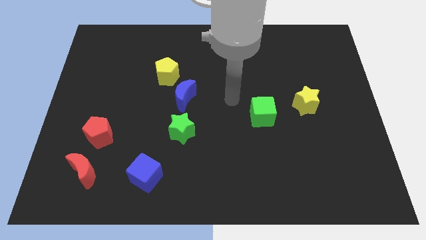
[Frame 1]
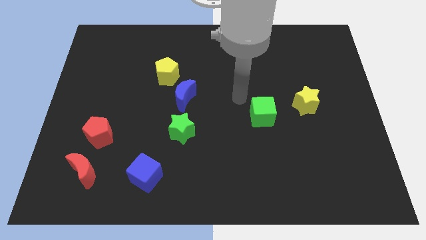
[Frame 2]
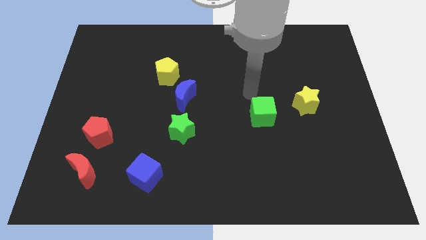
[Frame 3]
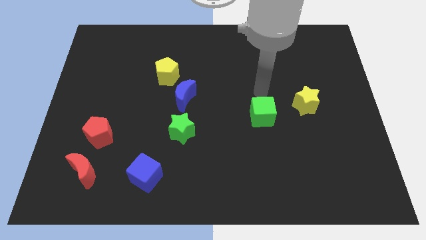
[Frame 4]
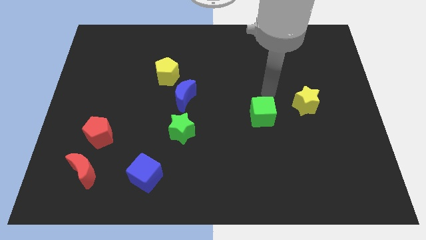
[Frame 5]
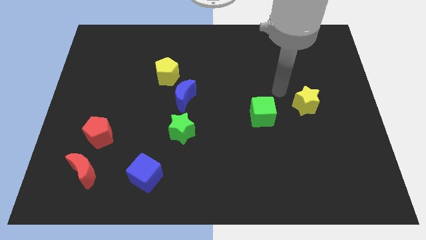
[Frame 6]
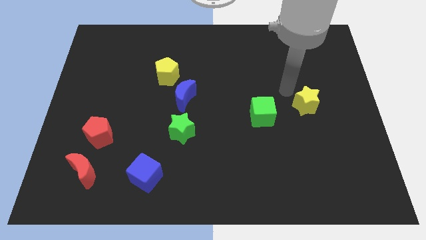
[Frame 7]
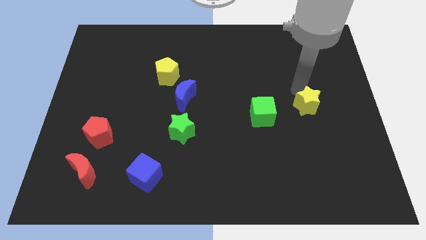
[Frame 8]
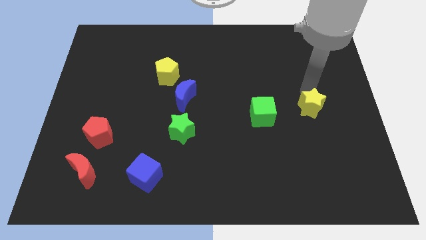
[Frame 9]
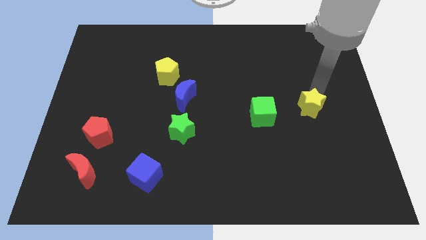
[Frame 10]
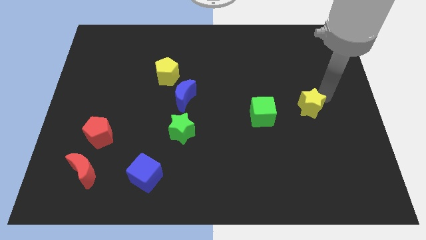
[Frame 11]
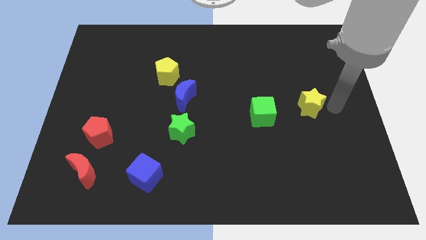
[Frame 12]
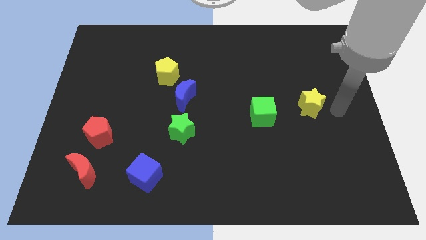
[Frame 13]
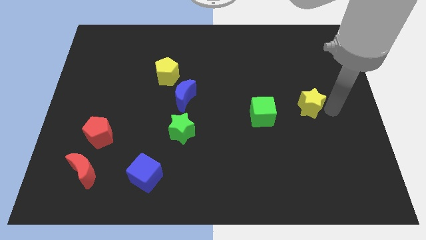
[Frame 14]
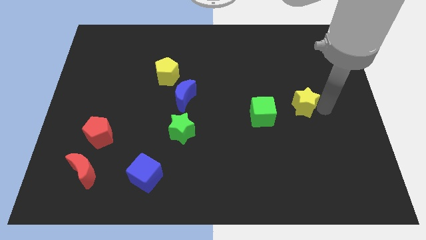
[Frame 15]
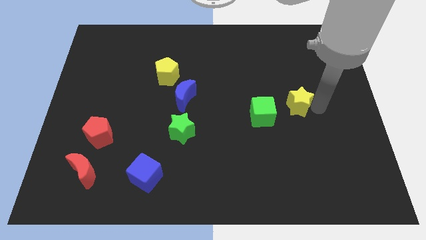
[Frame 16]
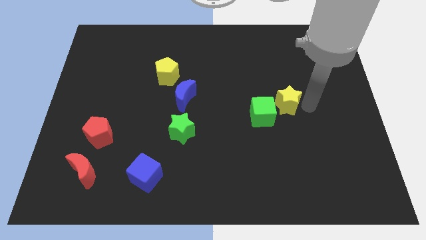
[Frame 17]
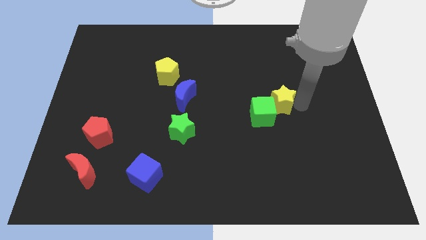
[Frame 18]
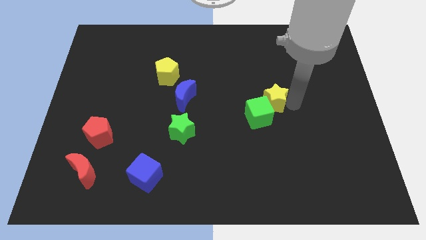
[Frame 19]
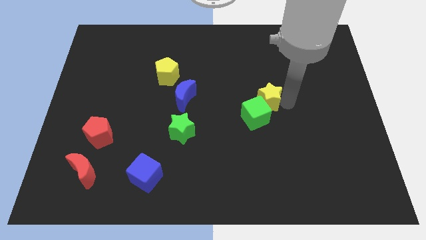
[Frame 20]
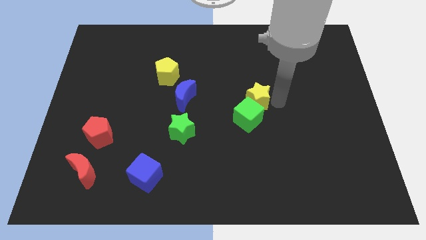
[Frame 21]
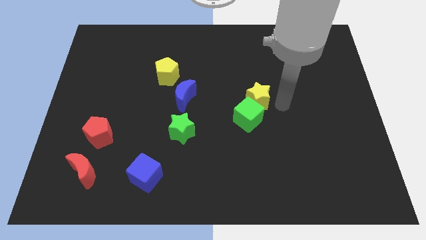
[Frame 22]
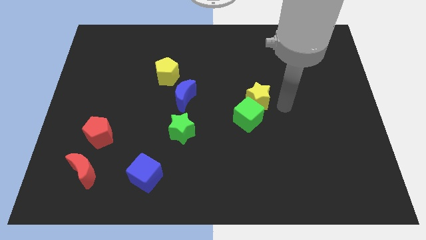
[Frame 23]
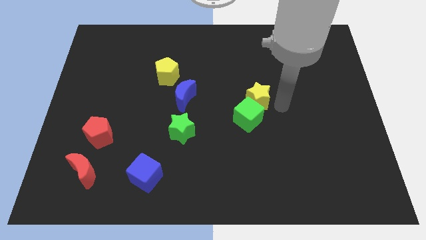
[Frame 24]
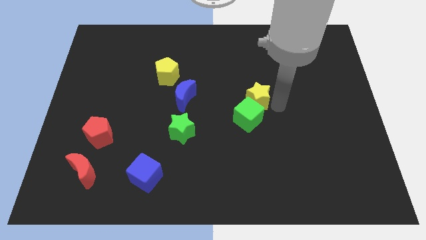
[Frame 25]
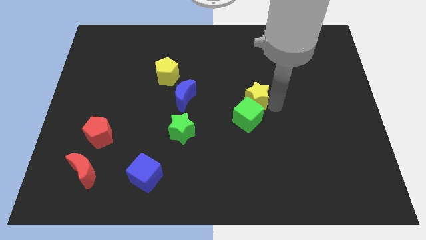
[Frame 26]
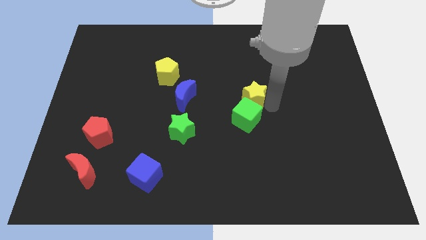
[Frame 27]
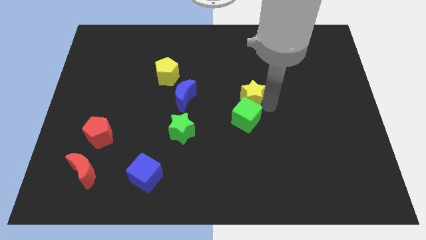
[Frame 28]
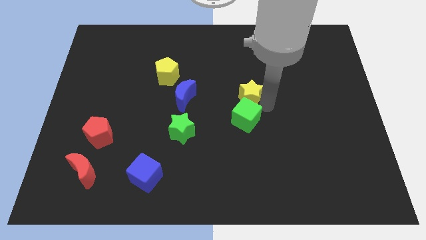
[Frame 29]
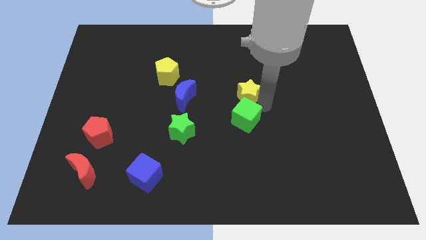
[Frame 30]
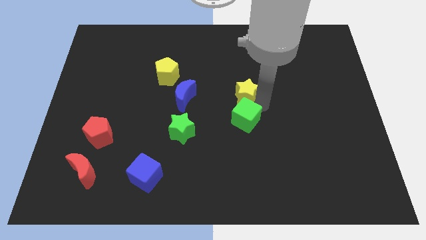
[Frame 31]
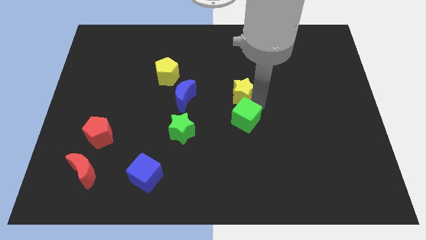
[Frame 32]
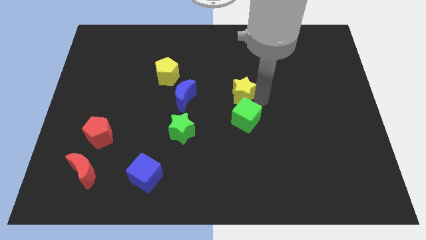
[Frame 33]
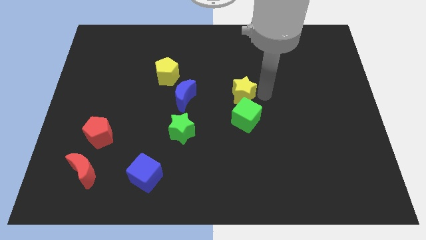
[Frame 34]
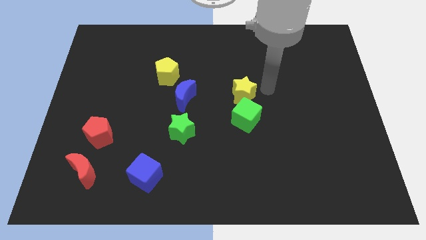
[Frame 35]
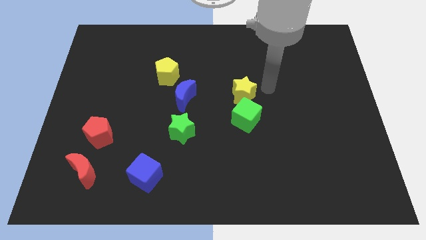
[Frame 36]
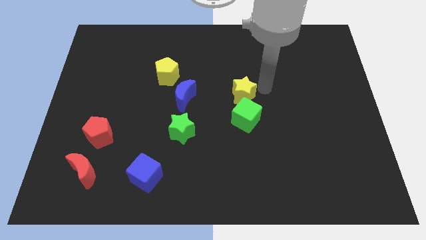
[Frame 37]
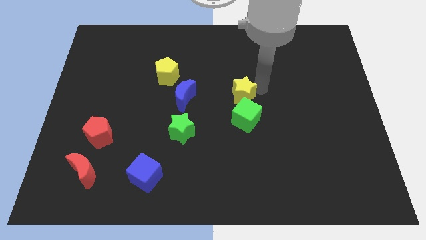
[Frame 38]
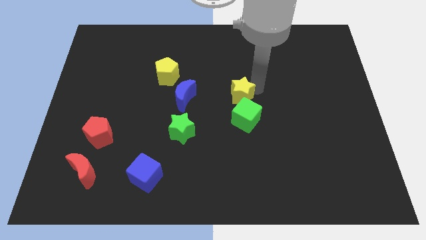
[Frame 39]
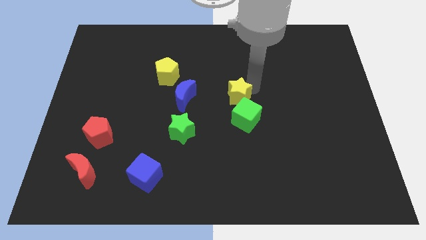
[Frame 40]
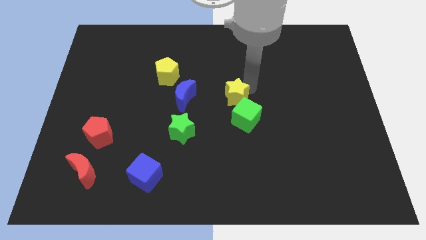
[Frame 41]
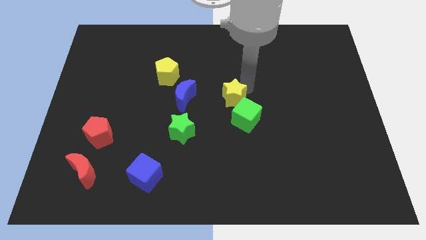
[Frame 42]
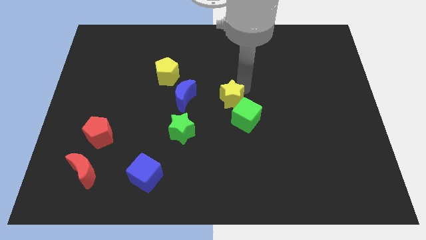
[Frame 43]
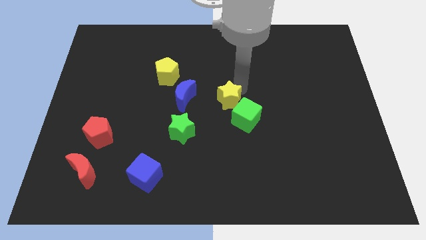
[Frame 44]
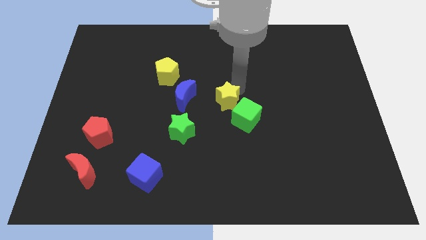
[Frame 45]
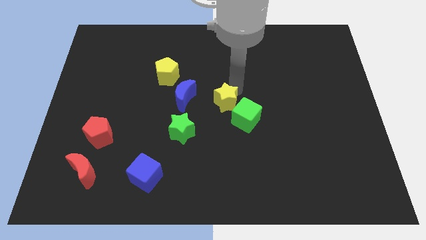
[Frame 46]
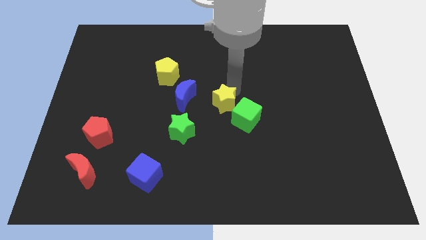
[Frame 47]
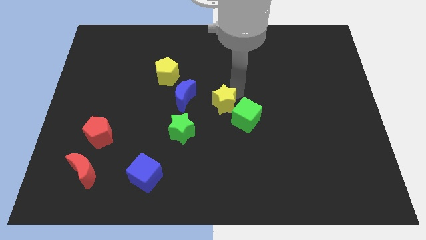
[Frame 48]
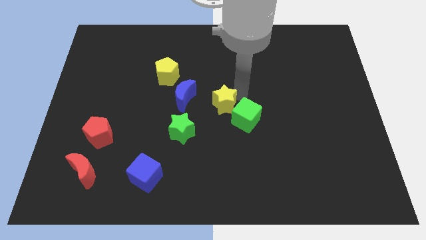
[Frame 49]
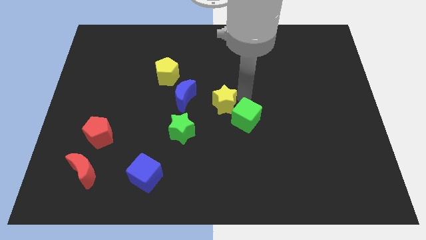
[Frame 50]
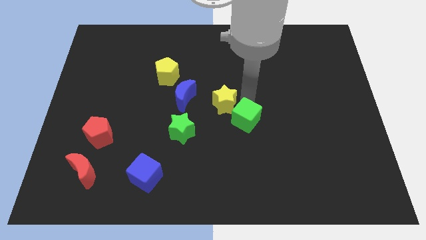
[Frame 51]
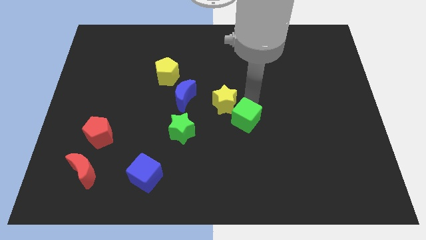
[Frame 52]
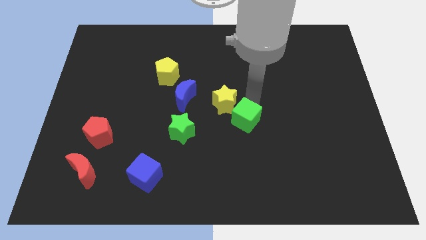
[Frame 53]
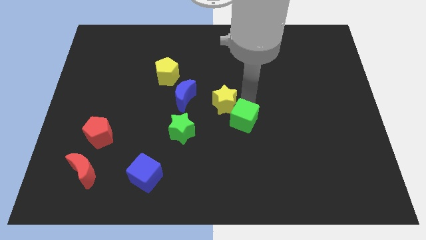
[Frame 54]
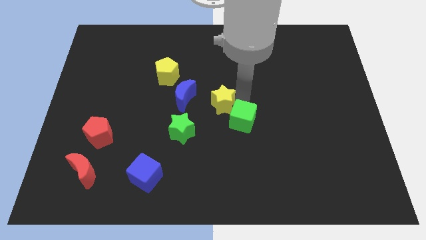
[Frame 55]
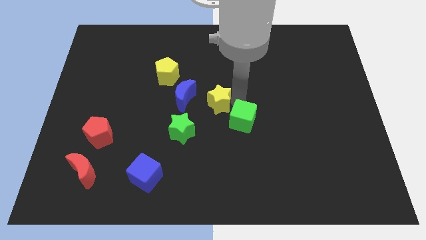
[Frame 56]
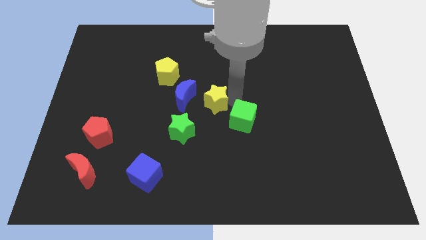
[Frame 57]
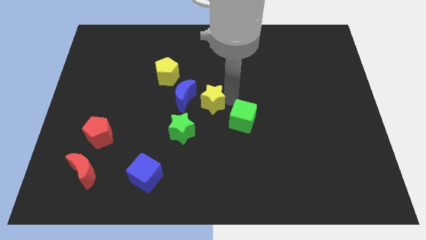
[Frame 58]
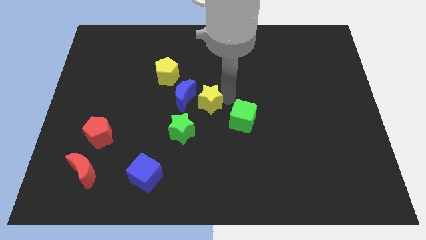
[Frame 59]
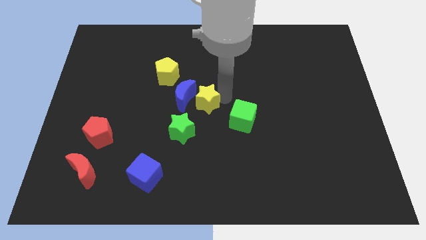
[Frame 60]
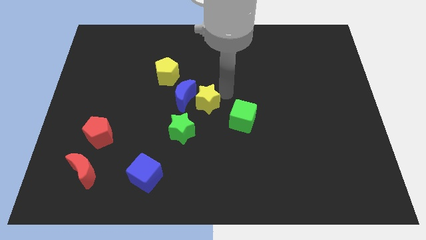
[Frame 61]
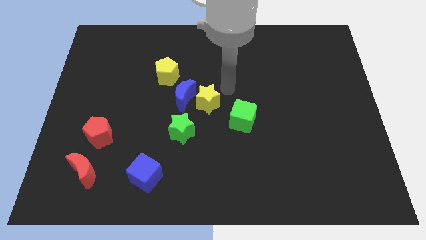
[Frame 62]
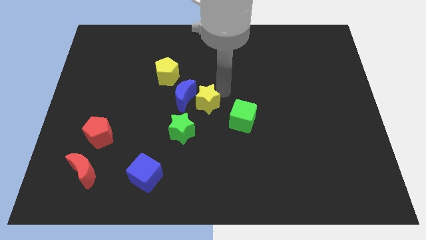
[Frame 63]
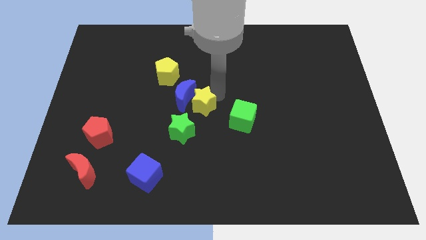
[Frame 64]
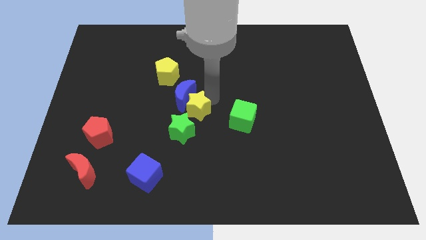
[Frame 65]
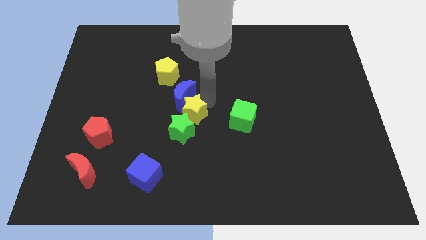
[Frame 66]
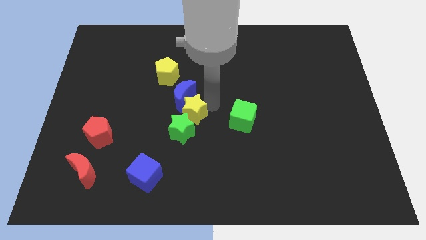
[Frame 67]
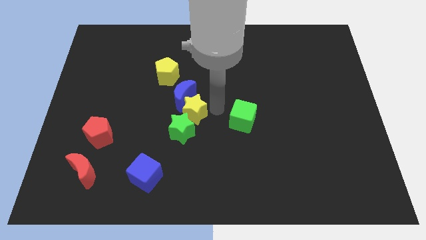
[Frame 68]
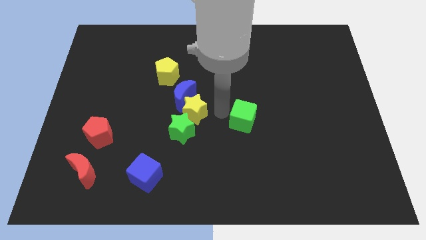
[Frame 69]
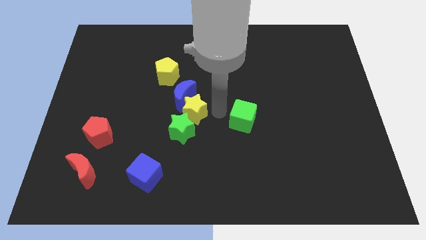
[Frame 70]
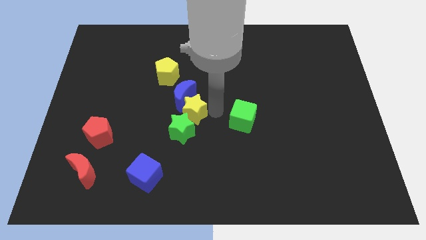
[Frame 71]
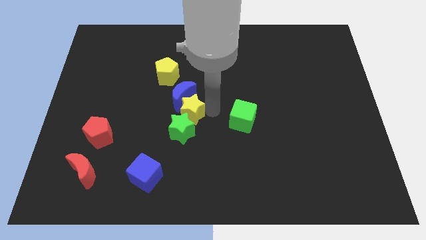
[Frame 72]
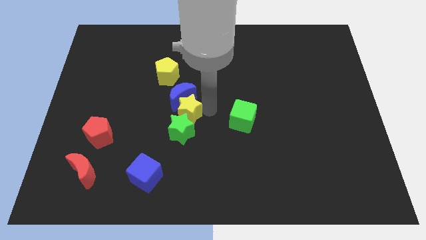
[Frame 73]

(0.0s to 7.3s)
push the yellow star to the top left of the green star

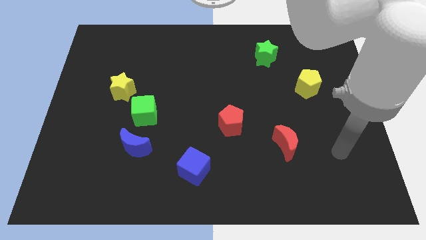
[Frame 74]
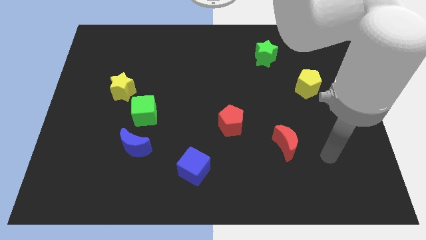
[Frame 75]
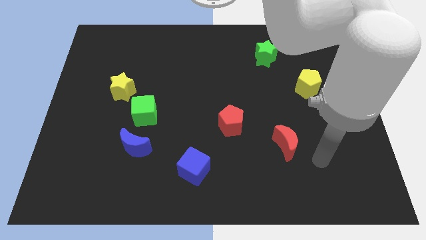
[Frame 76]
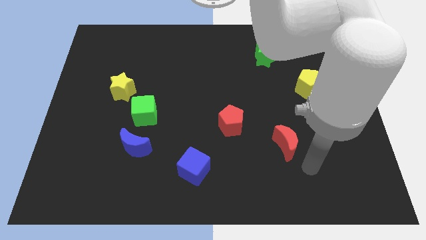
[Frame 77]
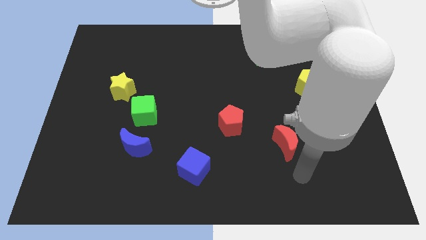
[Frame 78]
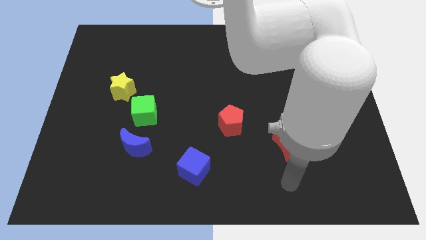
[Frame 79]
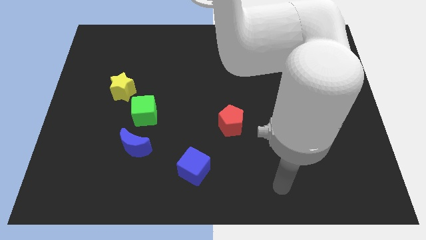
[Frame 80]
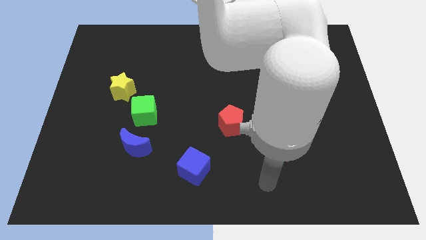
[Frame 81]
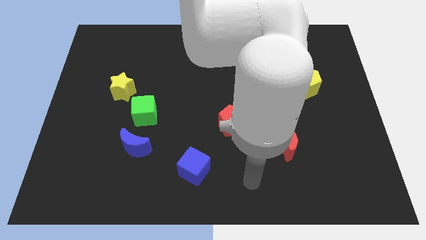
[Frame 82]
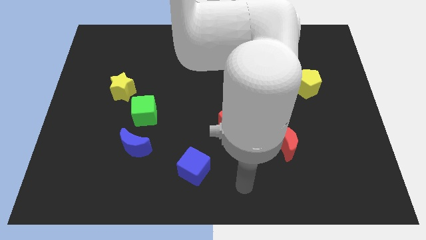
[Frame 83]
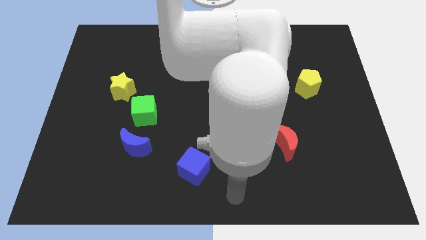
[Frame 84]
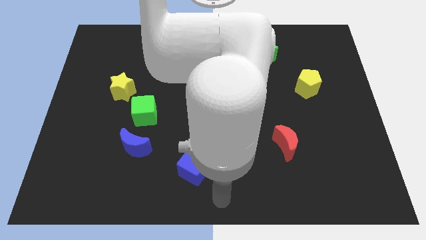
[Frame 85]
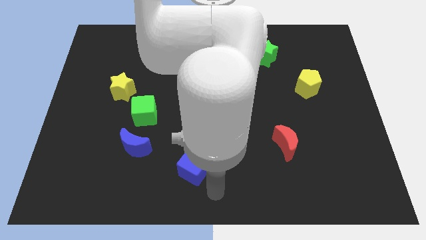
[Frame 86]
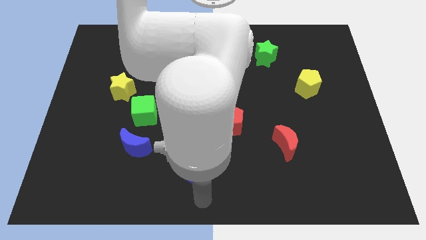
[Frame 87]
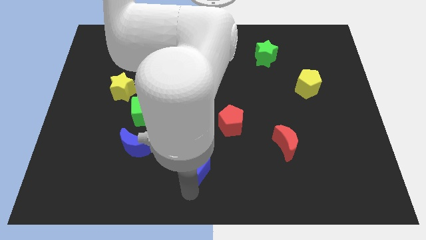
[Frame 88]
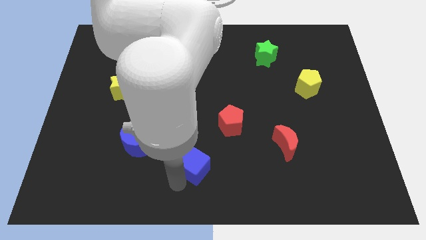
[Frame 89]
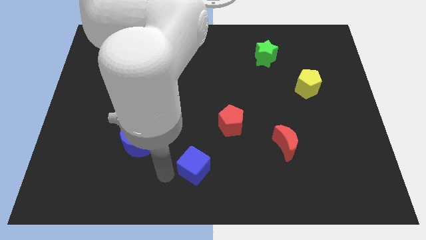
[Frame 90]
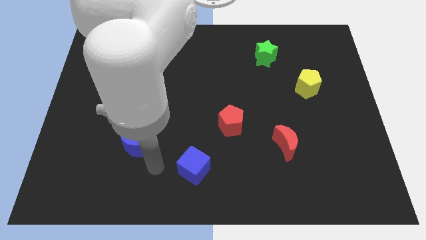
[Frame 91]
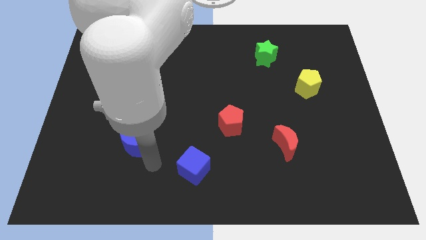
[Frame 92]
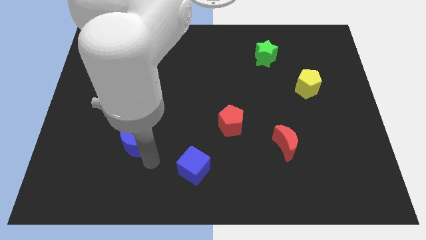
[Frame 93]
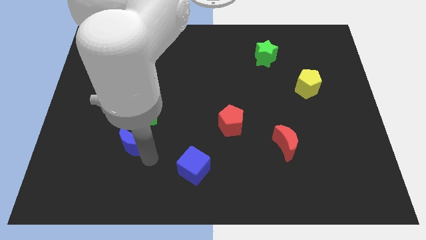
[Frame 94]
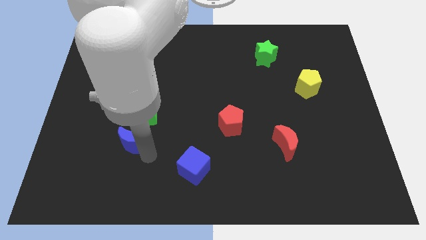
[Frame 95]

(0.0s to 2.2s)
move the blue moon to the bottom left of the green cube
